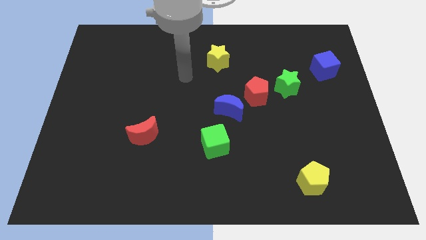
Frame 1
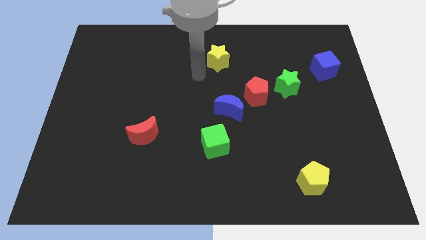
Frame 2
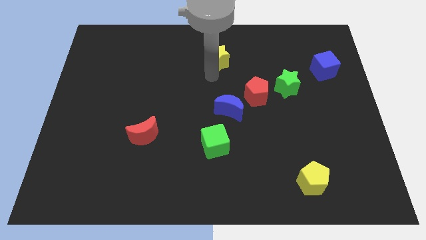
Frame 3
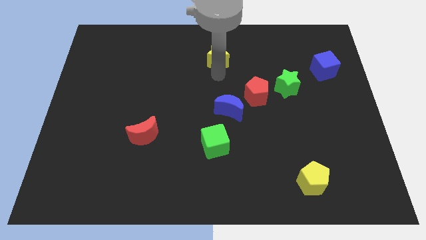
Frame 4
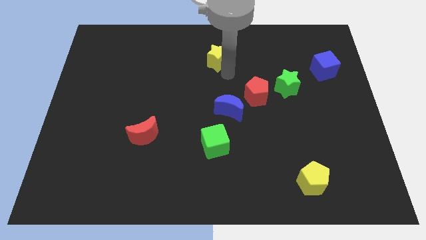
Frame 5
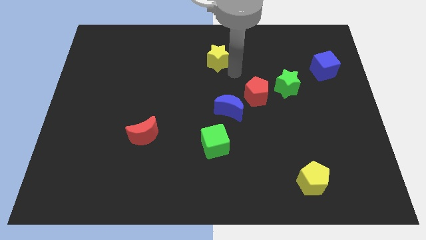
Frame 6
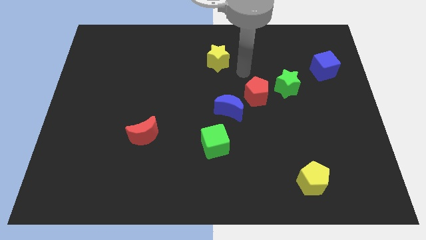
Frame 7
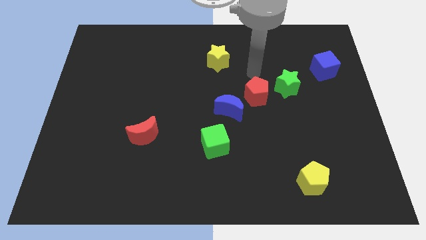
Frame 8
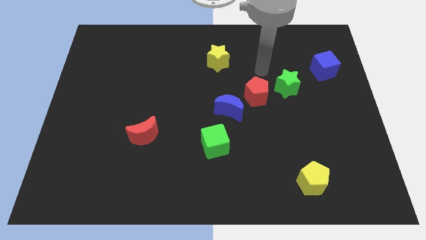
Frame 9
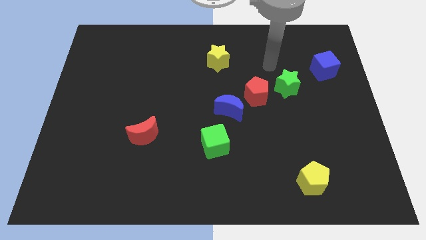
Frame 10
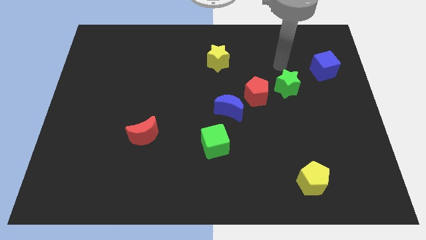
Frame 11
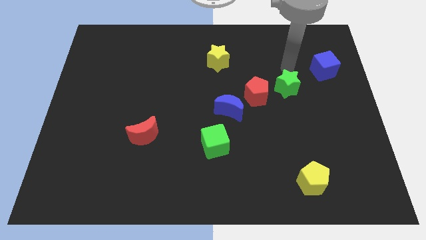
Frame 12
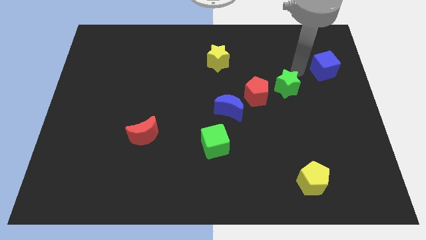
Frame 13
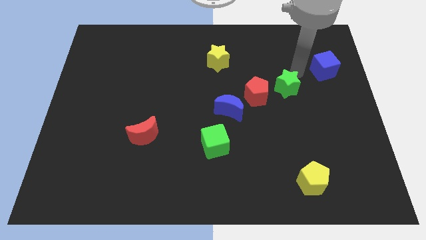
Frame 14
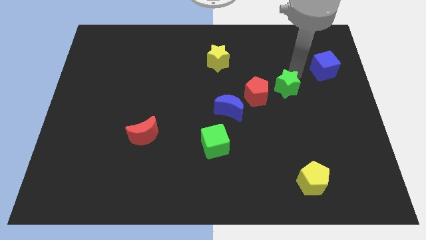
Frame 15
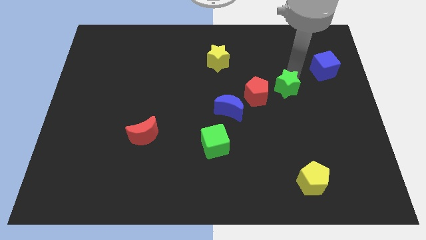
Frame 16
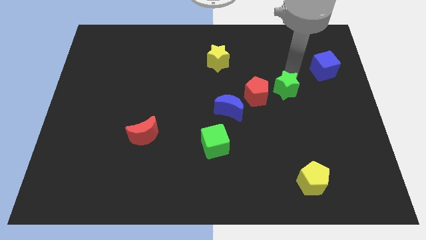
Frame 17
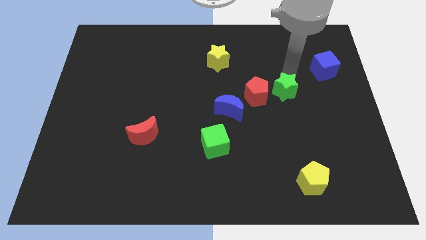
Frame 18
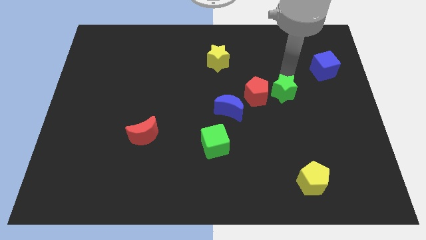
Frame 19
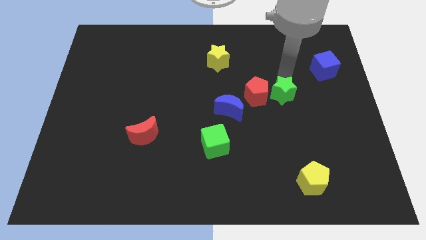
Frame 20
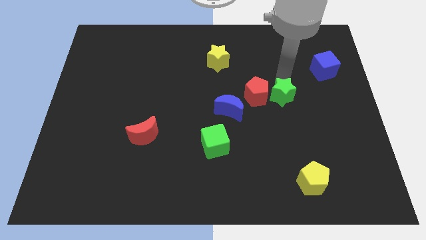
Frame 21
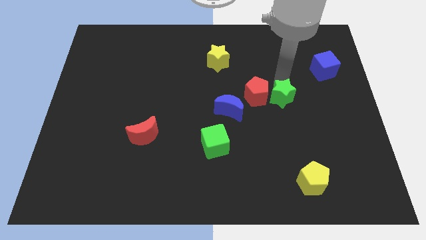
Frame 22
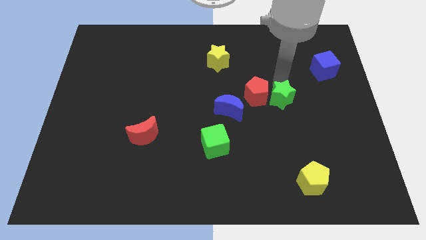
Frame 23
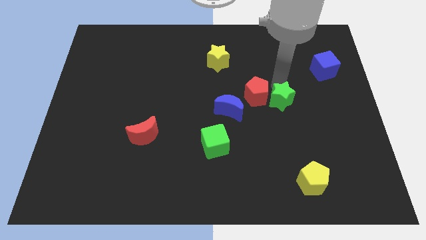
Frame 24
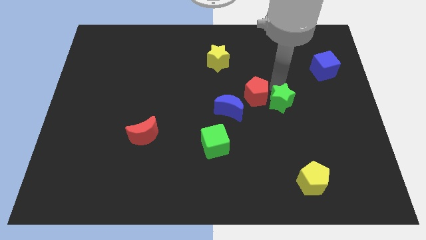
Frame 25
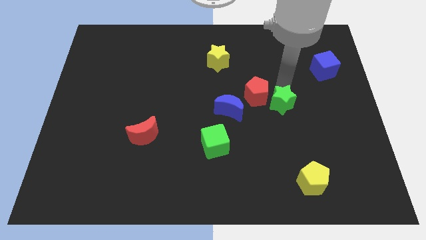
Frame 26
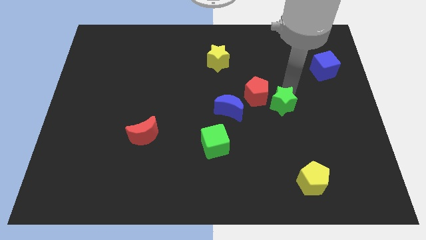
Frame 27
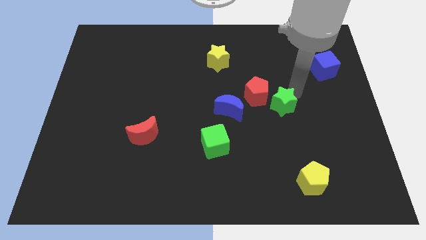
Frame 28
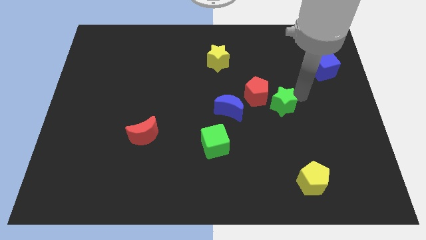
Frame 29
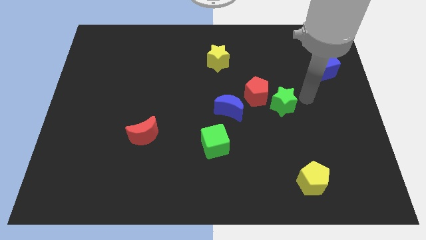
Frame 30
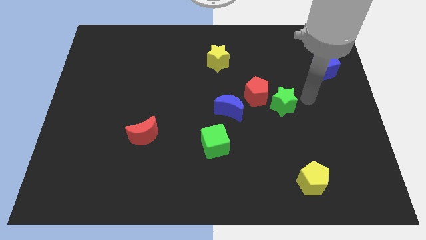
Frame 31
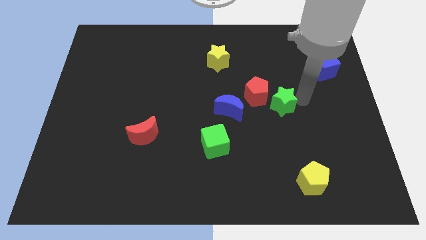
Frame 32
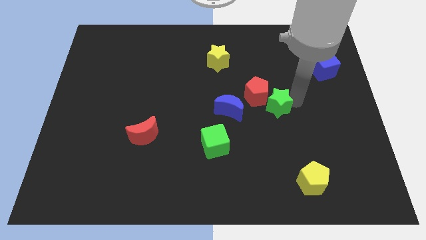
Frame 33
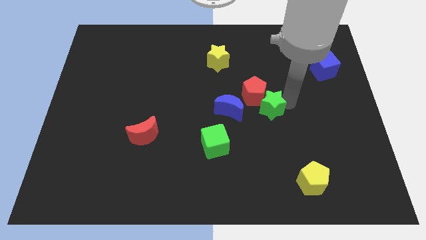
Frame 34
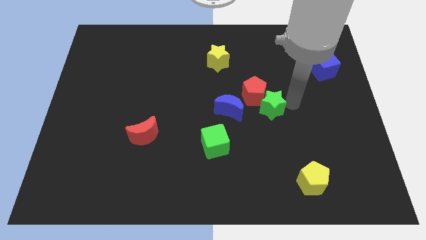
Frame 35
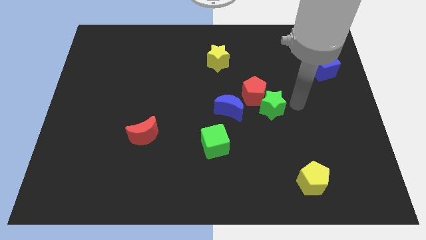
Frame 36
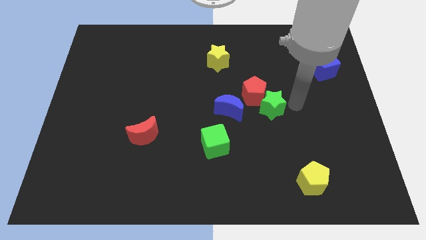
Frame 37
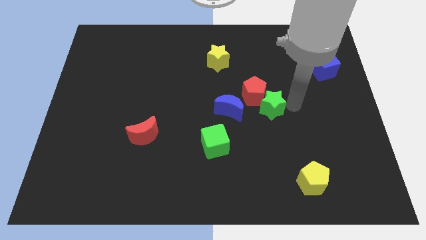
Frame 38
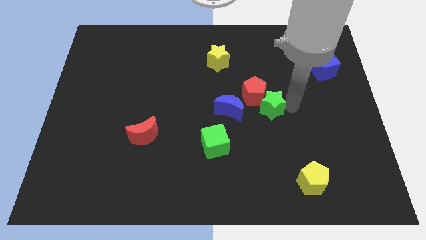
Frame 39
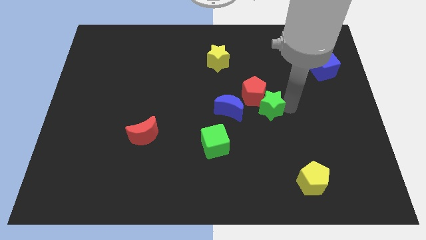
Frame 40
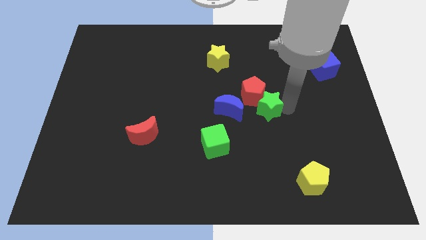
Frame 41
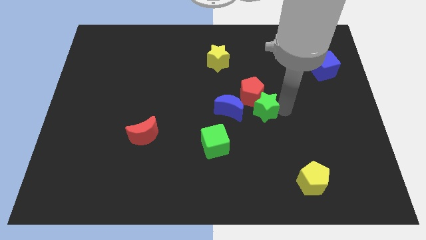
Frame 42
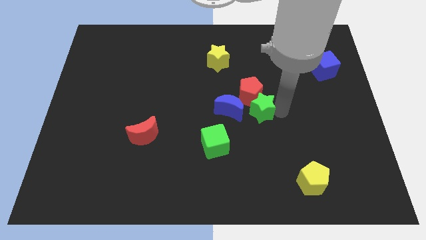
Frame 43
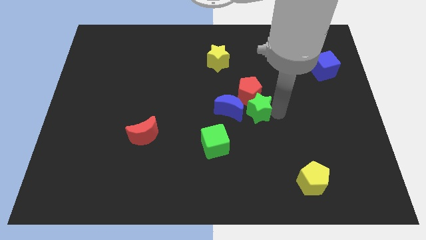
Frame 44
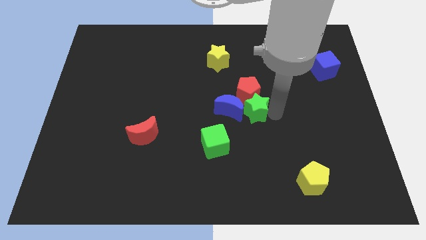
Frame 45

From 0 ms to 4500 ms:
put the green star towards the blue moon

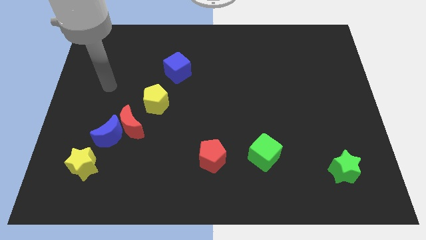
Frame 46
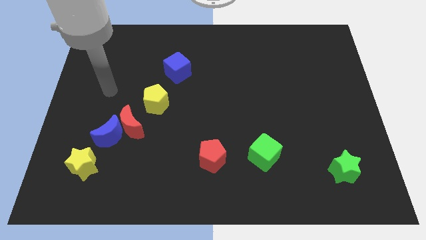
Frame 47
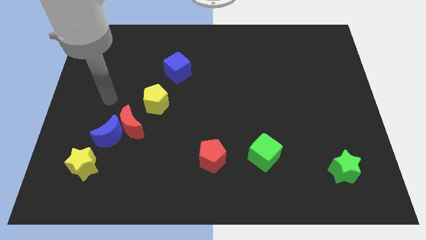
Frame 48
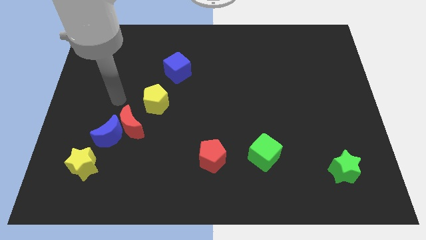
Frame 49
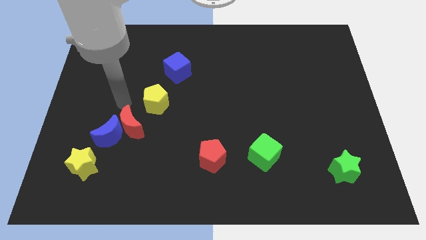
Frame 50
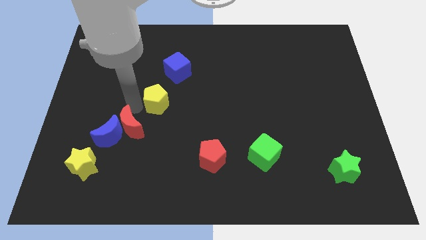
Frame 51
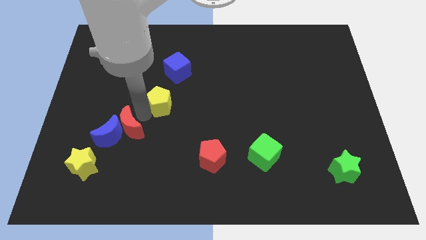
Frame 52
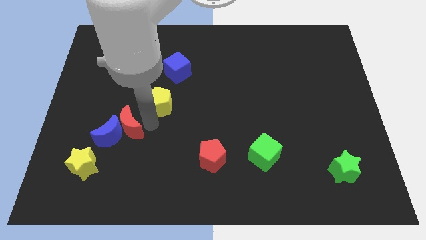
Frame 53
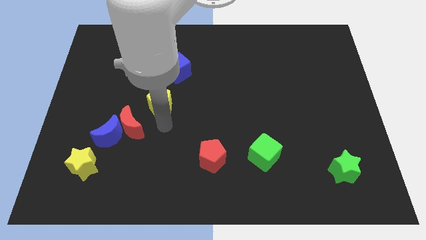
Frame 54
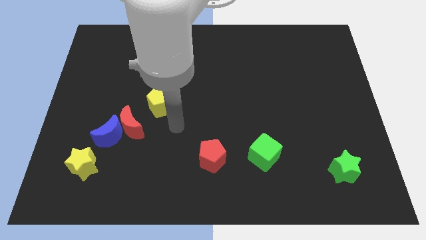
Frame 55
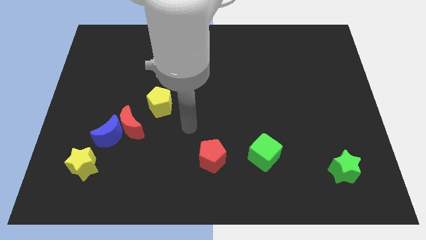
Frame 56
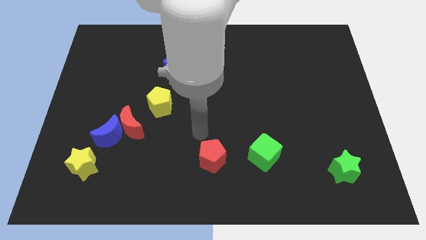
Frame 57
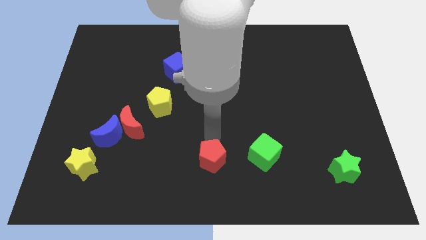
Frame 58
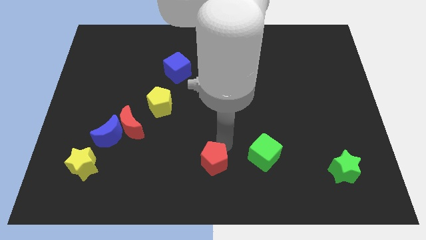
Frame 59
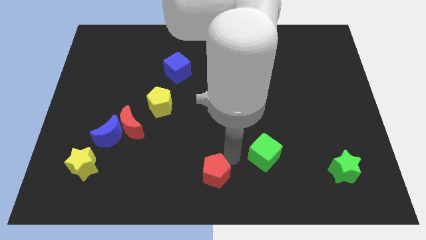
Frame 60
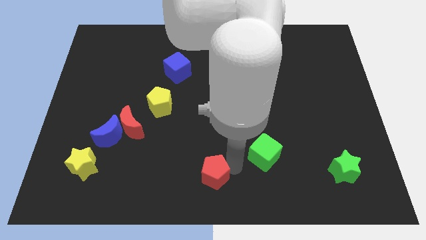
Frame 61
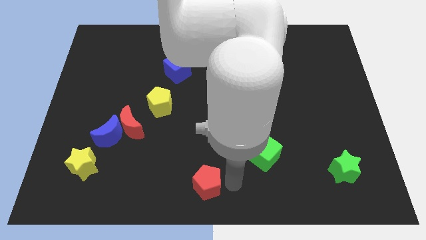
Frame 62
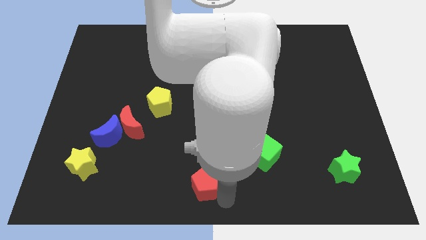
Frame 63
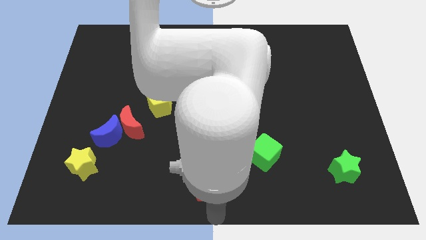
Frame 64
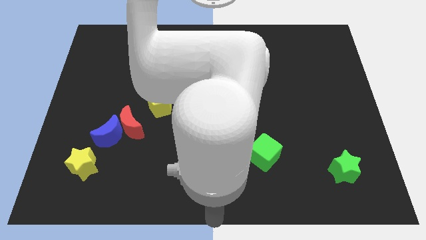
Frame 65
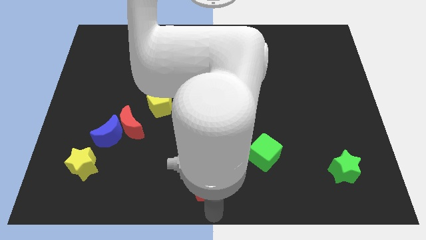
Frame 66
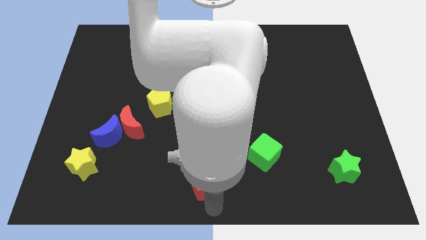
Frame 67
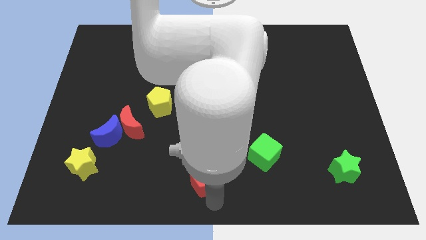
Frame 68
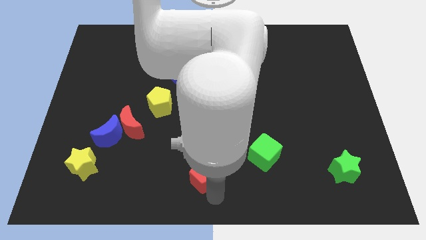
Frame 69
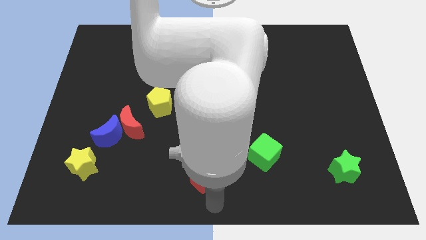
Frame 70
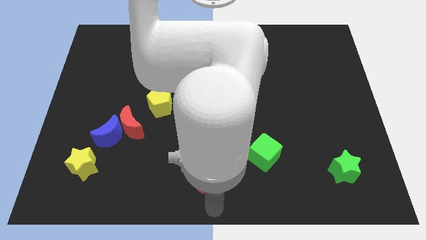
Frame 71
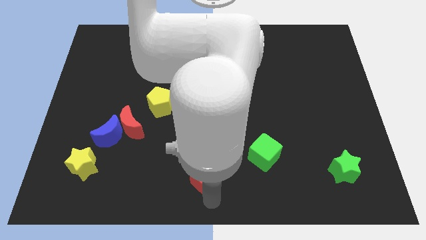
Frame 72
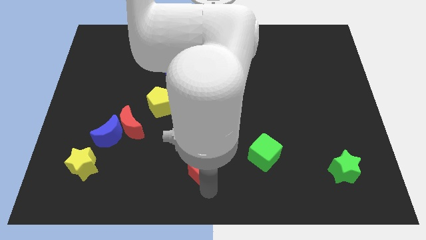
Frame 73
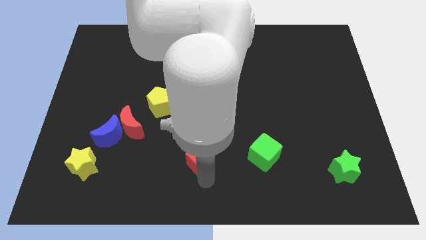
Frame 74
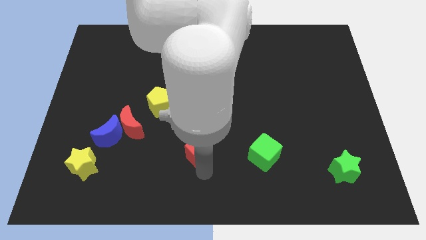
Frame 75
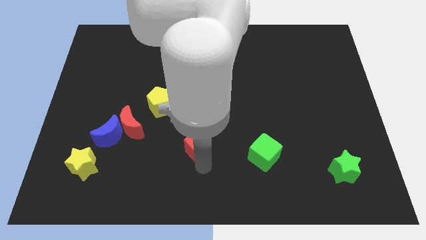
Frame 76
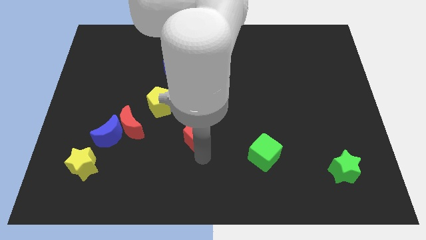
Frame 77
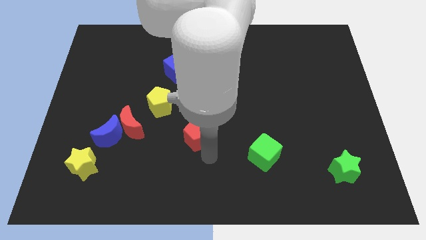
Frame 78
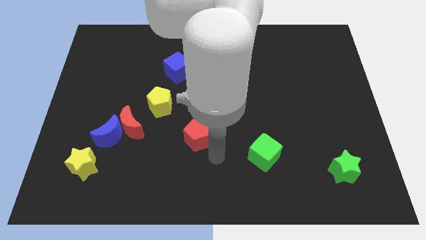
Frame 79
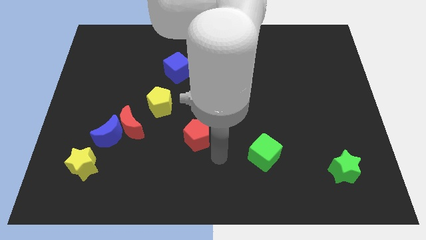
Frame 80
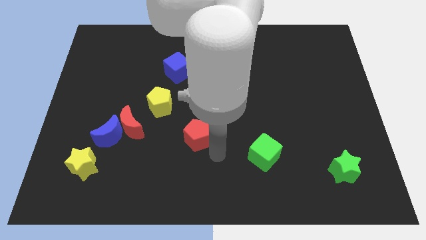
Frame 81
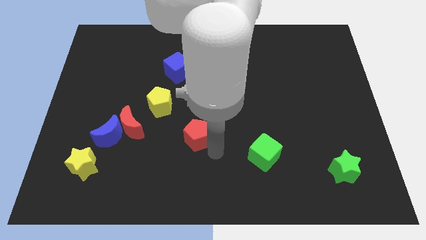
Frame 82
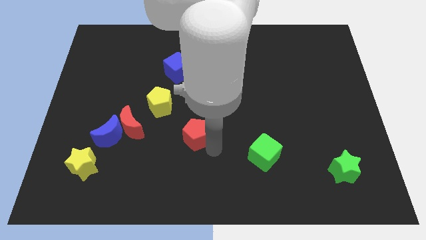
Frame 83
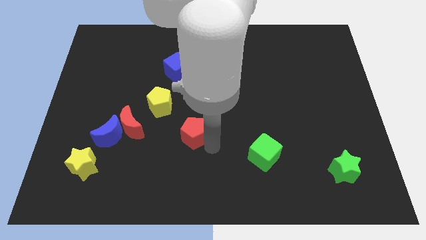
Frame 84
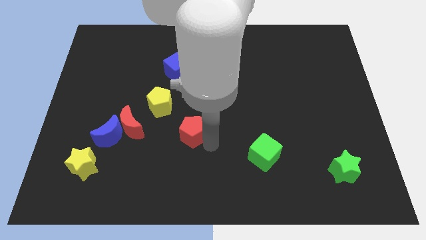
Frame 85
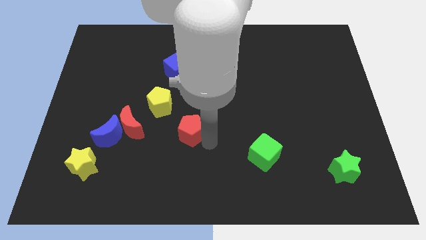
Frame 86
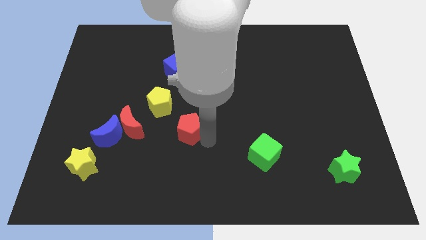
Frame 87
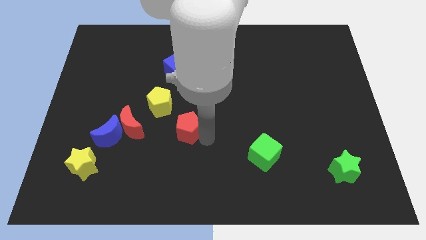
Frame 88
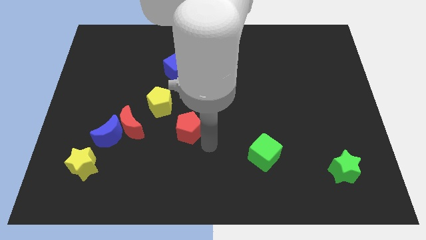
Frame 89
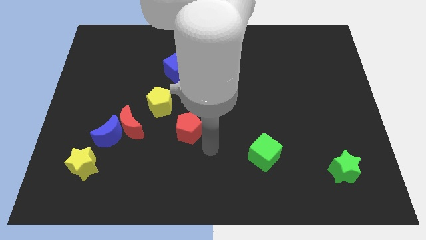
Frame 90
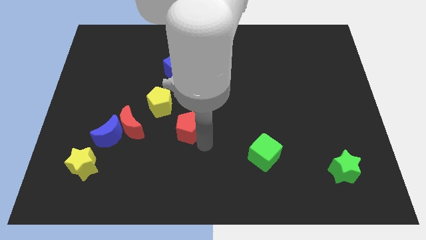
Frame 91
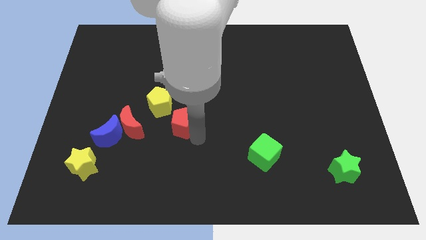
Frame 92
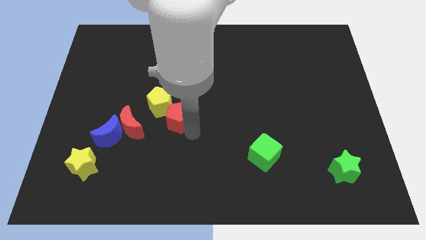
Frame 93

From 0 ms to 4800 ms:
put the red pentagon to the yellow pentagon
